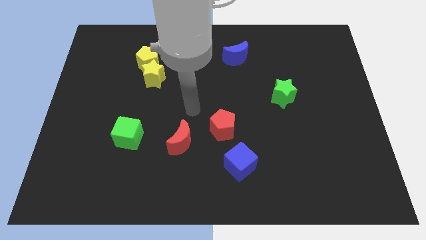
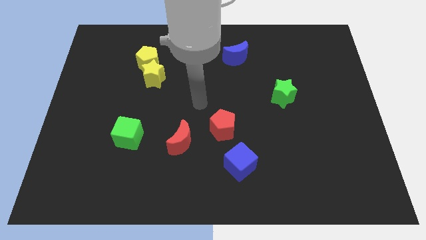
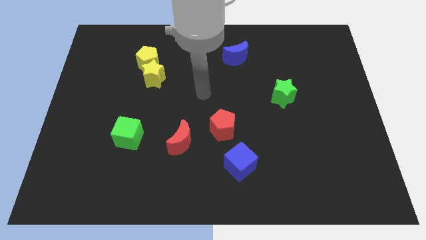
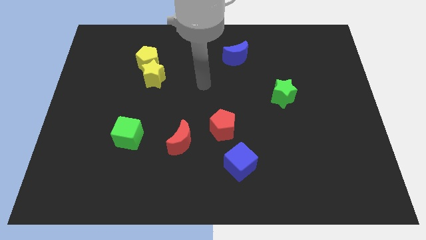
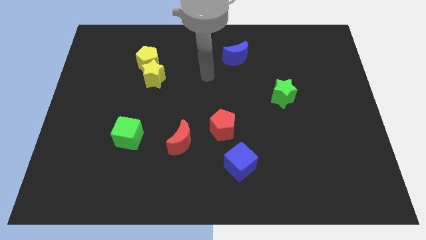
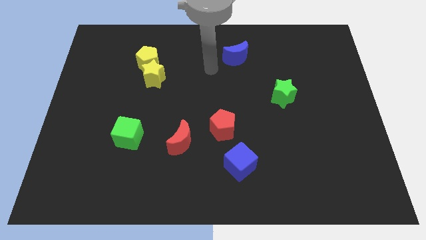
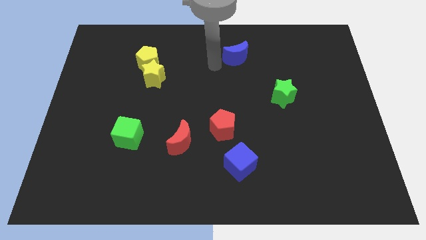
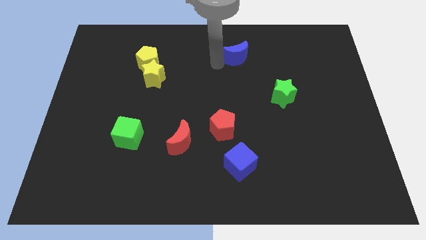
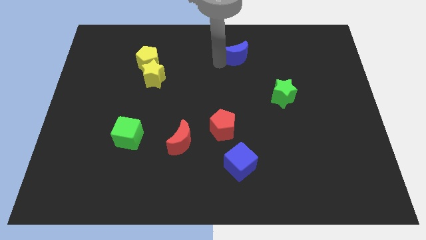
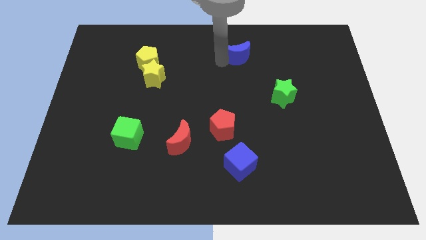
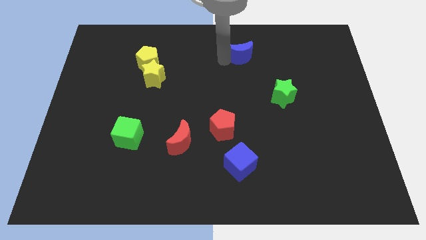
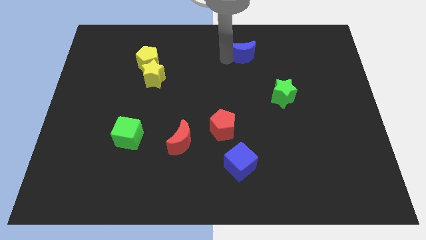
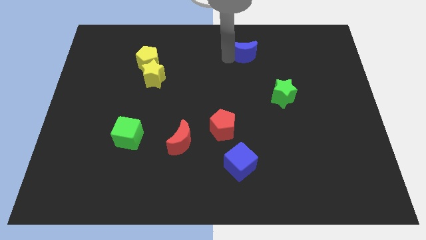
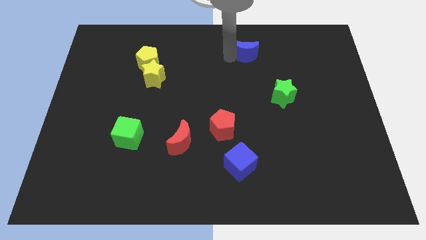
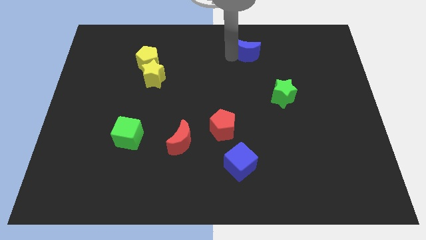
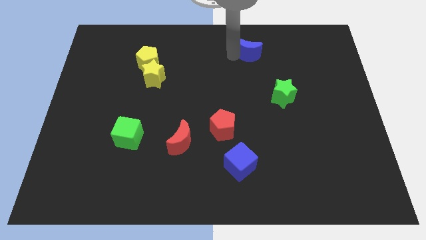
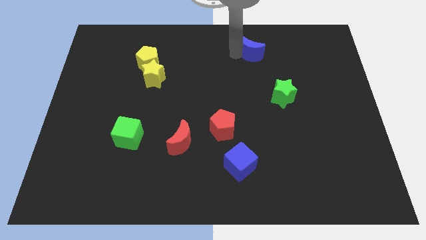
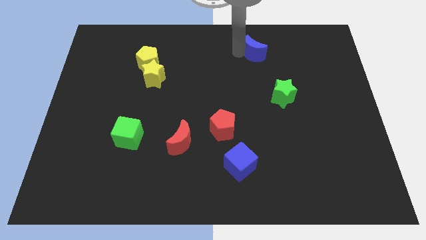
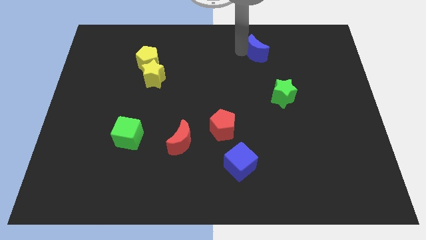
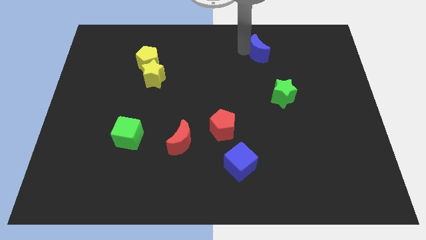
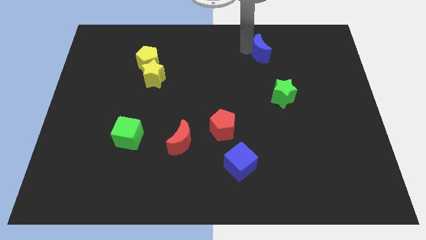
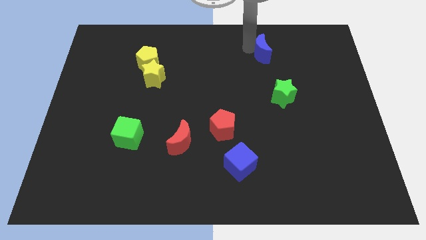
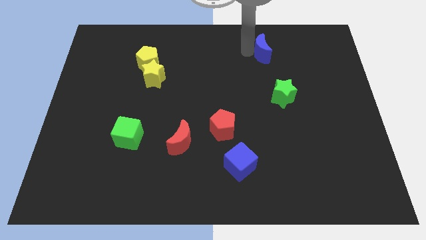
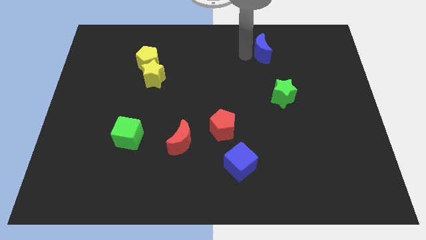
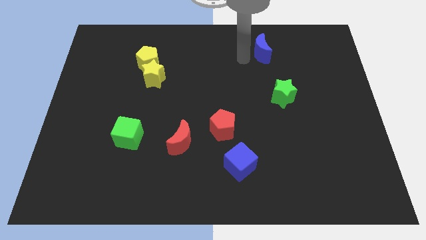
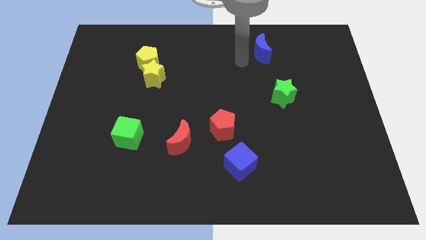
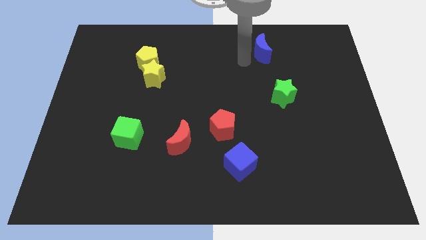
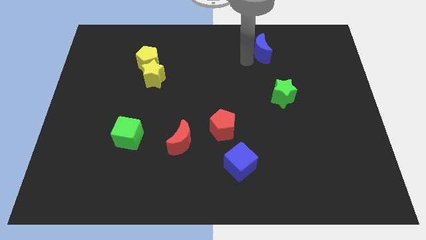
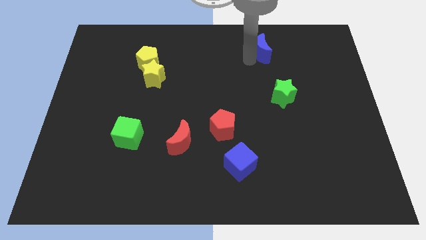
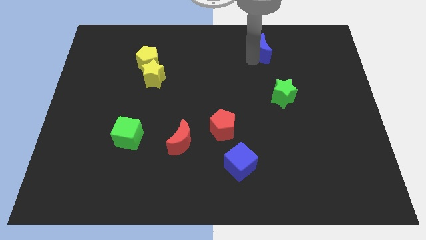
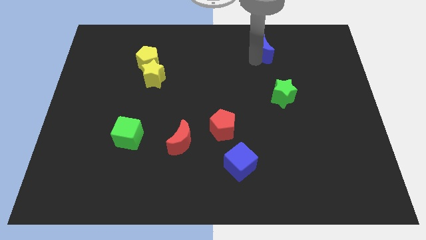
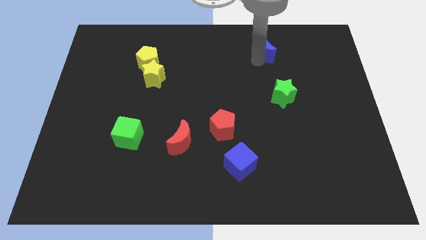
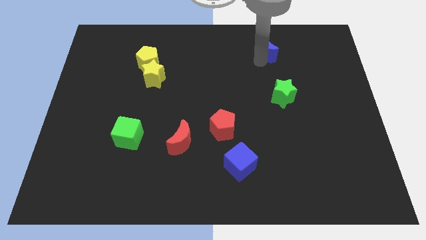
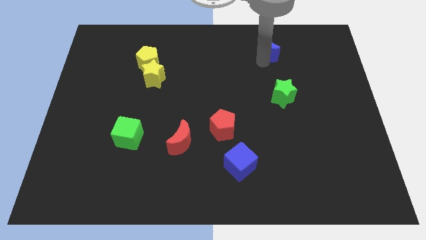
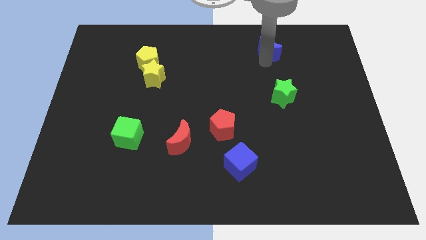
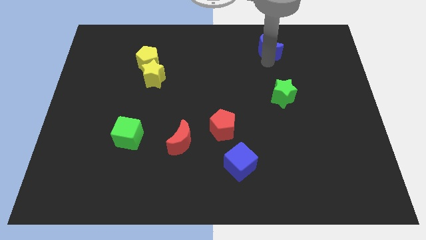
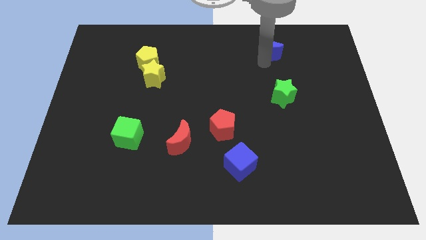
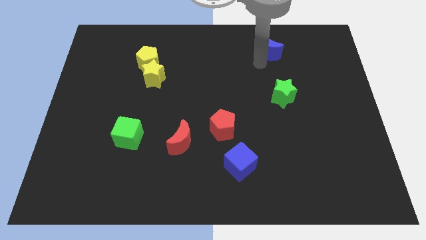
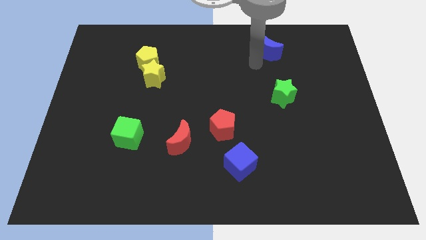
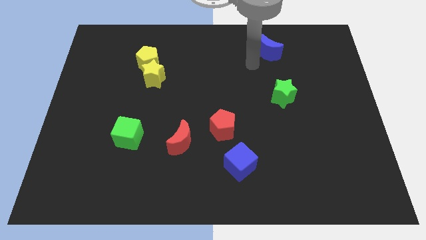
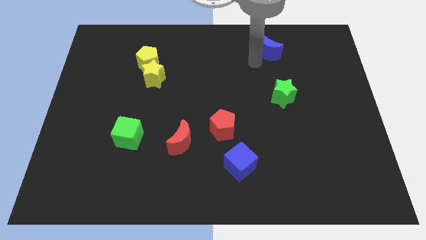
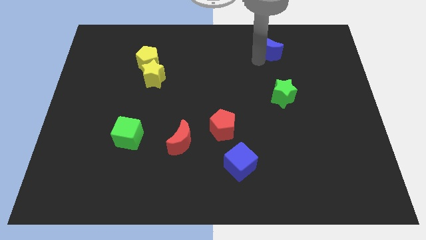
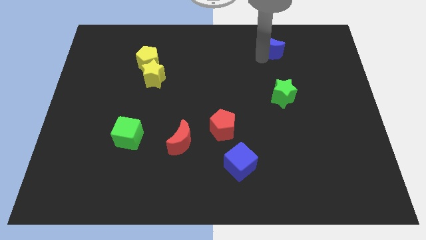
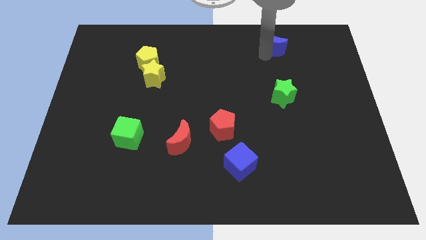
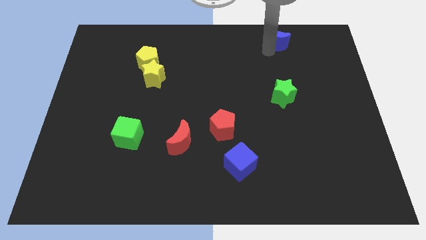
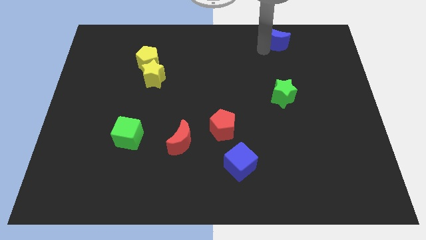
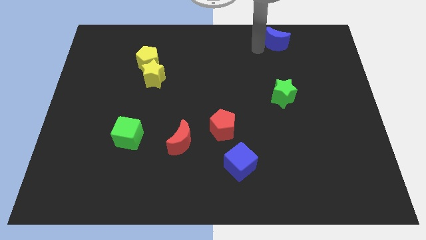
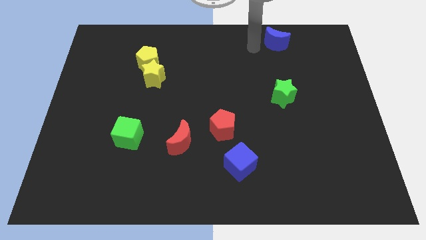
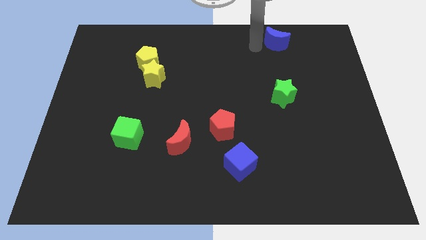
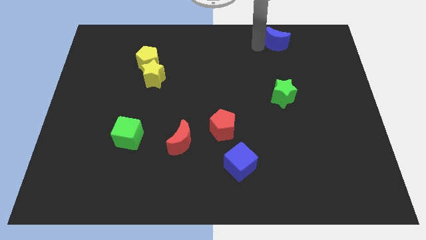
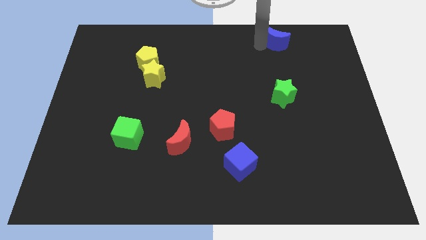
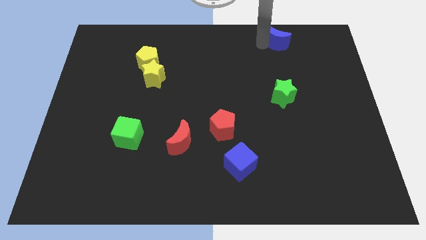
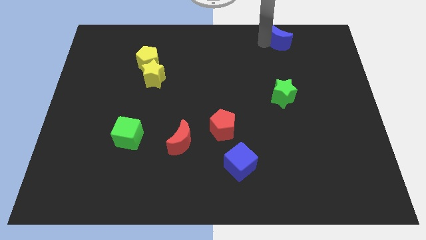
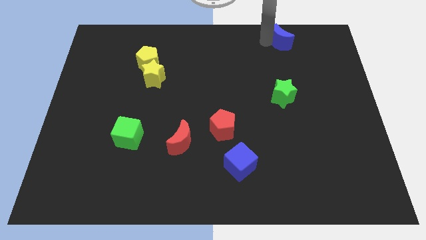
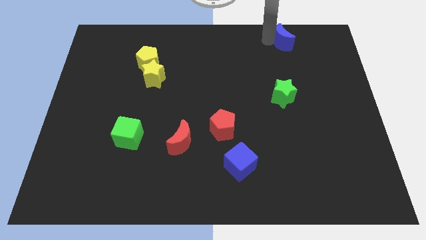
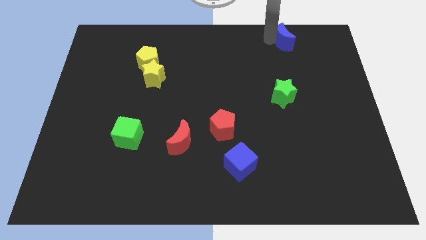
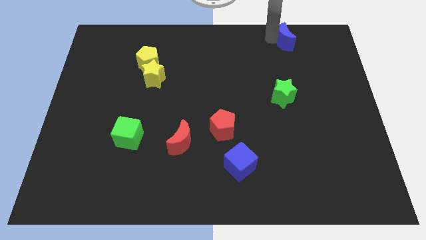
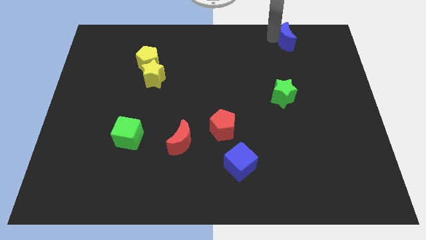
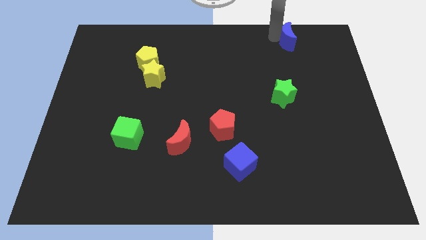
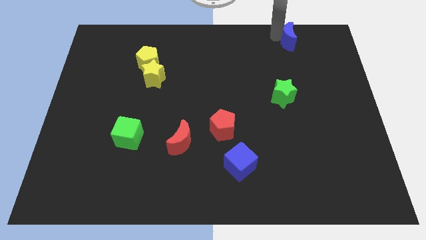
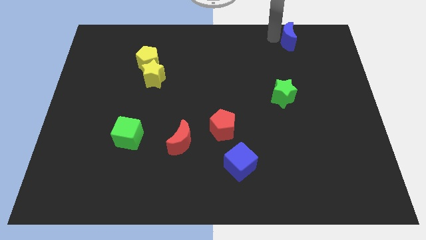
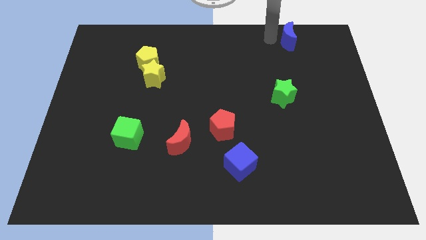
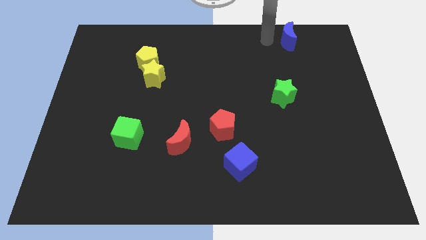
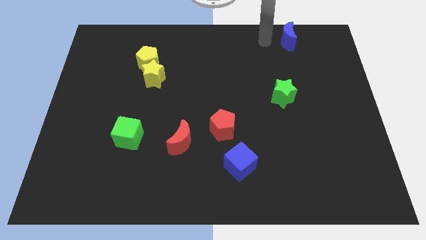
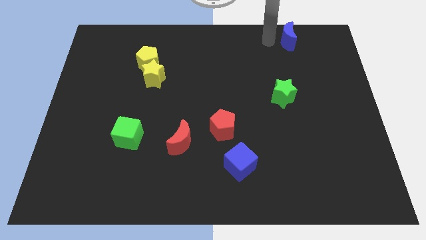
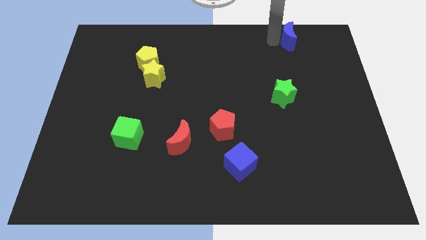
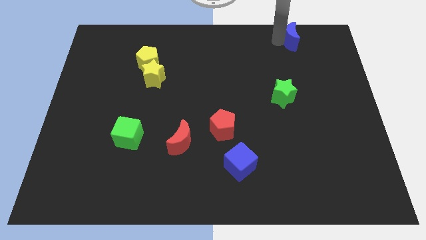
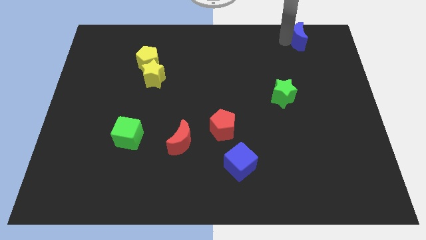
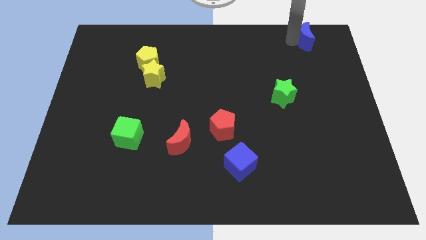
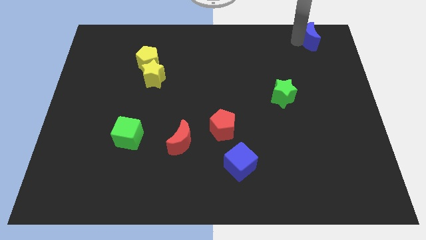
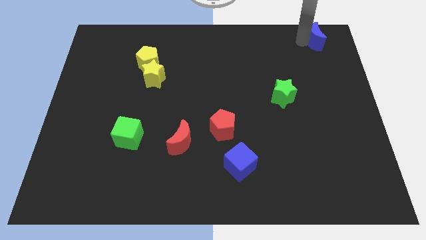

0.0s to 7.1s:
slide the blue moon to the top right corner
